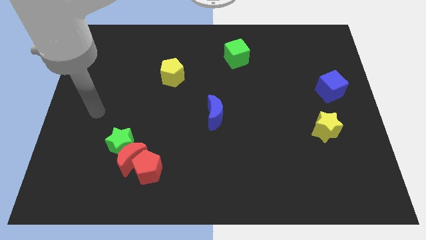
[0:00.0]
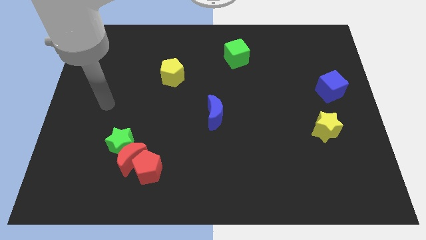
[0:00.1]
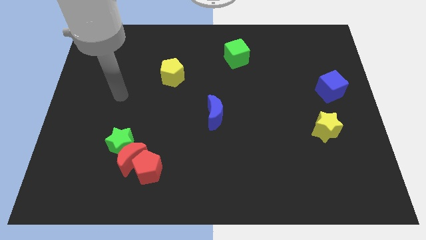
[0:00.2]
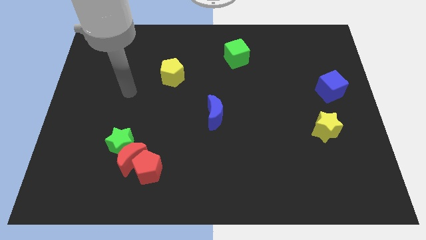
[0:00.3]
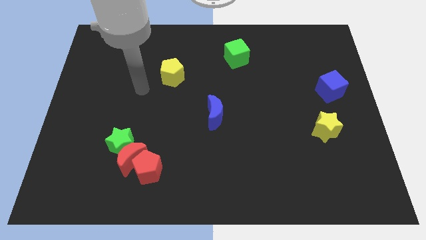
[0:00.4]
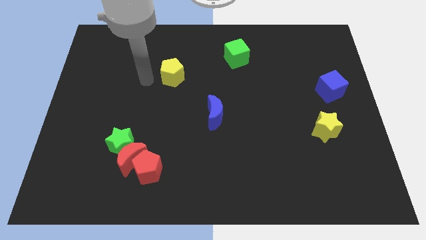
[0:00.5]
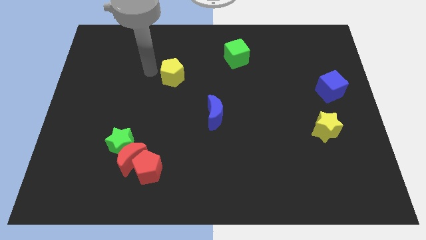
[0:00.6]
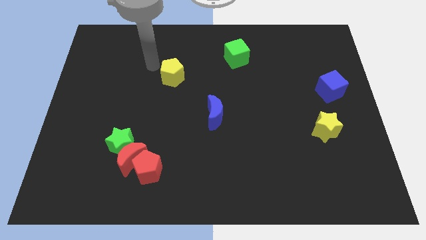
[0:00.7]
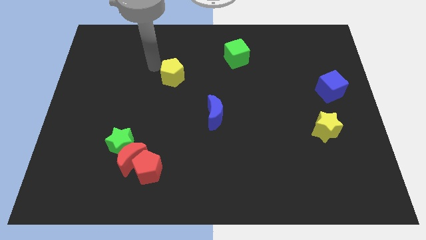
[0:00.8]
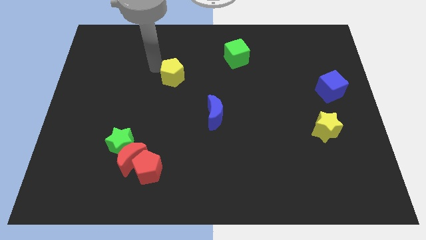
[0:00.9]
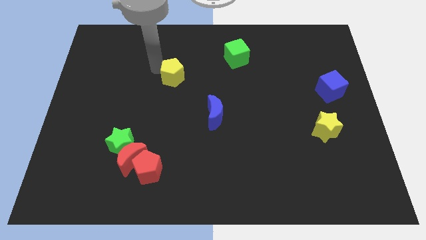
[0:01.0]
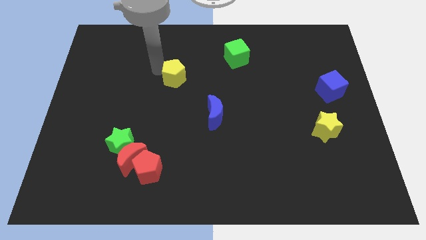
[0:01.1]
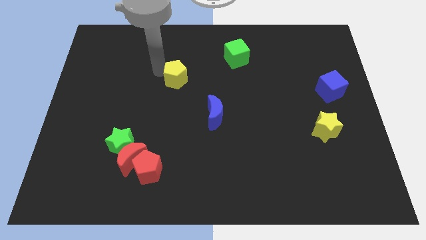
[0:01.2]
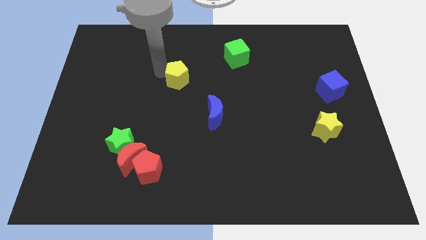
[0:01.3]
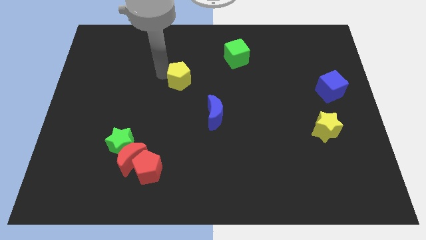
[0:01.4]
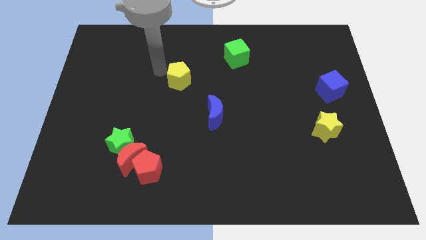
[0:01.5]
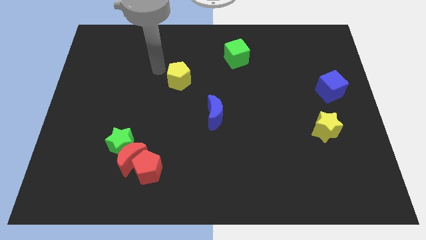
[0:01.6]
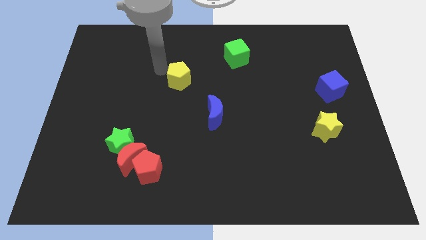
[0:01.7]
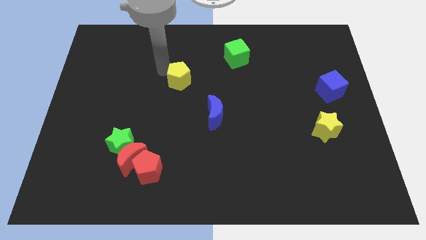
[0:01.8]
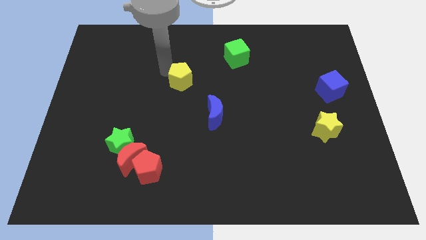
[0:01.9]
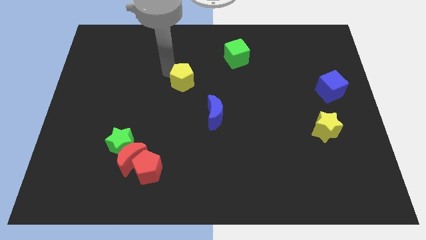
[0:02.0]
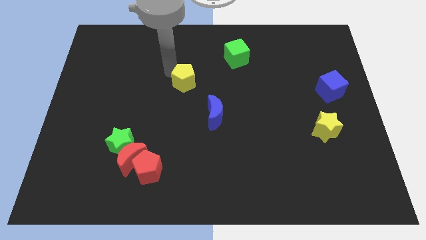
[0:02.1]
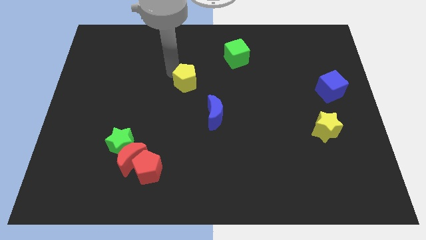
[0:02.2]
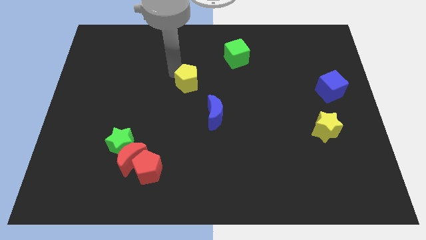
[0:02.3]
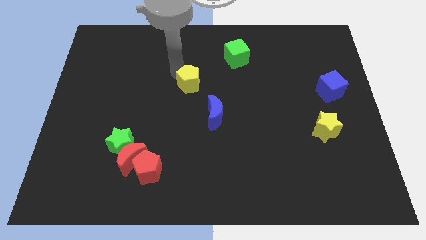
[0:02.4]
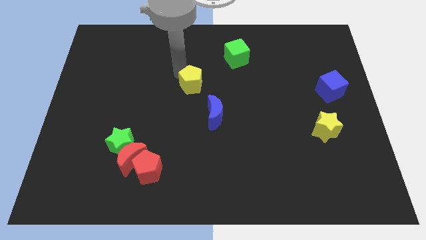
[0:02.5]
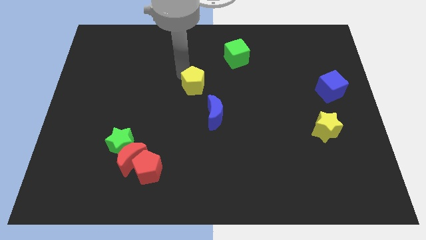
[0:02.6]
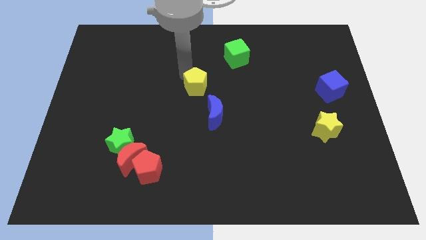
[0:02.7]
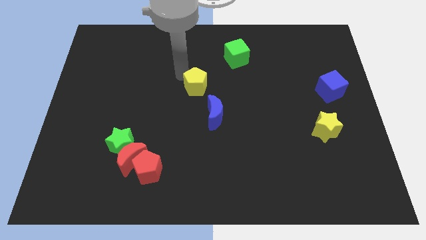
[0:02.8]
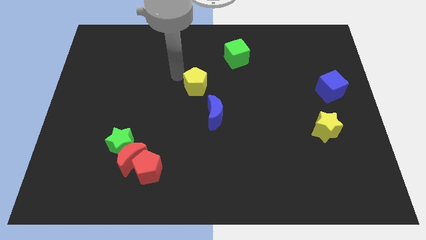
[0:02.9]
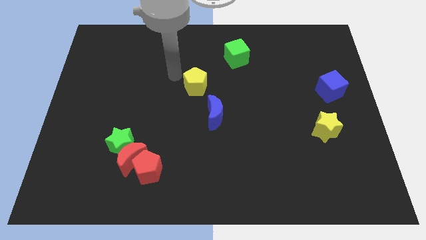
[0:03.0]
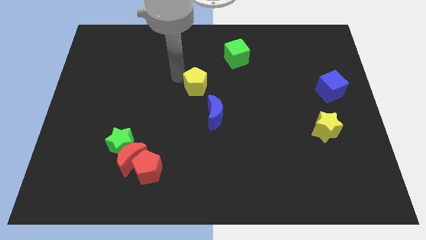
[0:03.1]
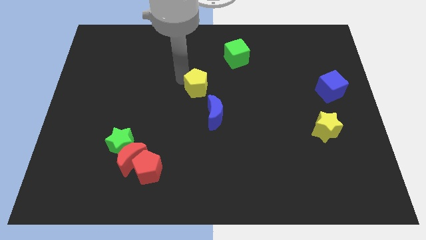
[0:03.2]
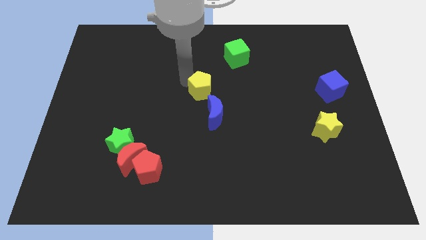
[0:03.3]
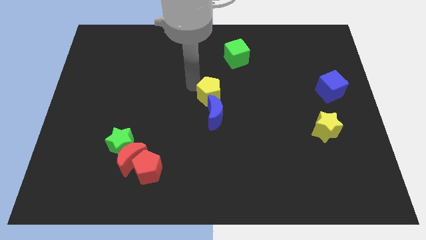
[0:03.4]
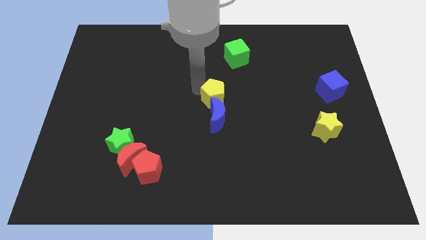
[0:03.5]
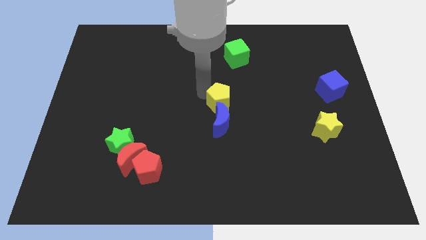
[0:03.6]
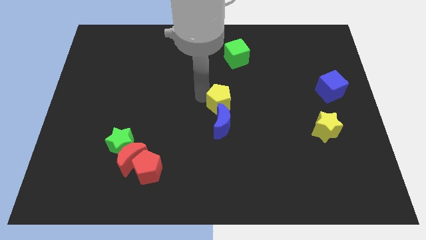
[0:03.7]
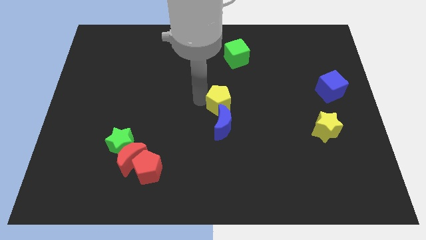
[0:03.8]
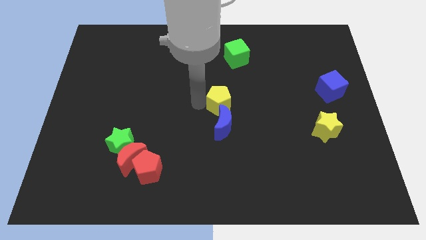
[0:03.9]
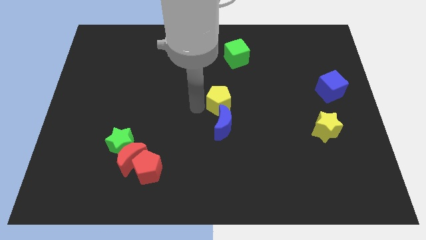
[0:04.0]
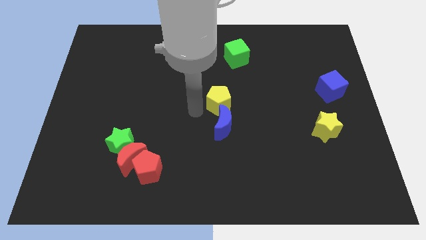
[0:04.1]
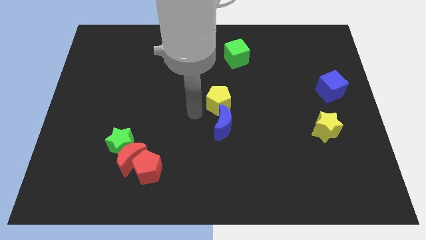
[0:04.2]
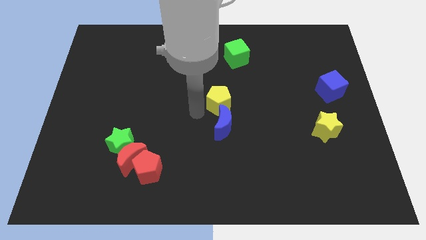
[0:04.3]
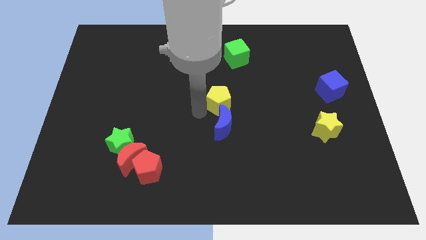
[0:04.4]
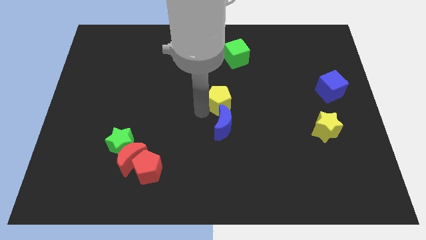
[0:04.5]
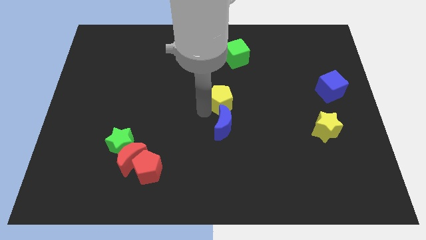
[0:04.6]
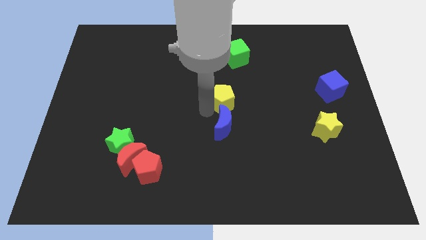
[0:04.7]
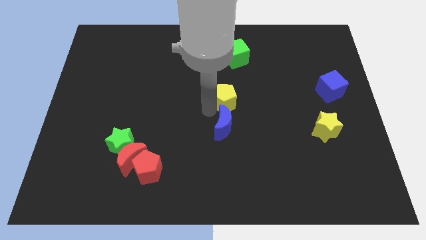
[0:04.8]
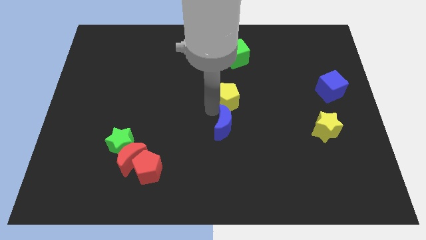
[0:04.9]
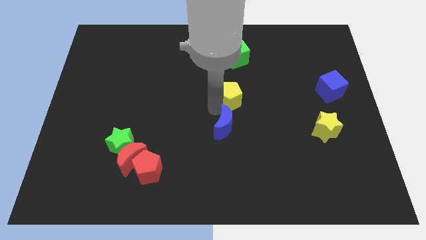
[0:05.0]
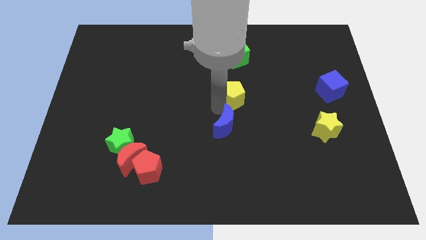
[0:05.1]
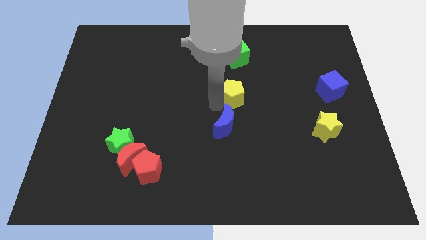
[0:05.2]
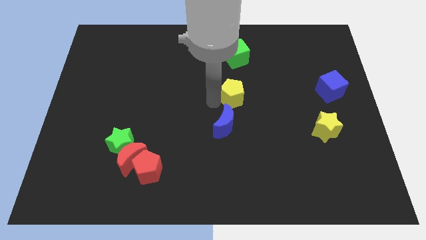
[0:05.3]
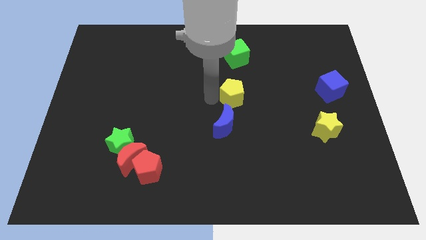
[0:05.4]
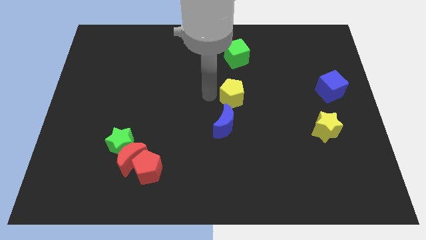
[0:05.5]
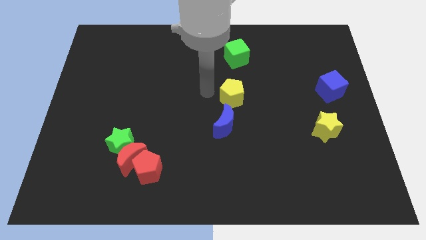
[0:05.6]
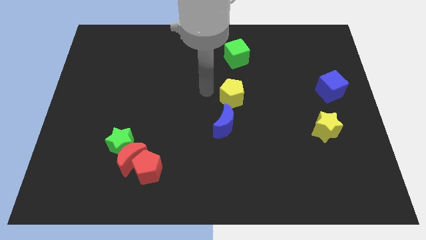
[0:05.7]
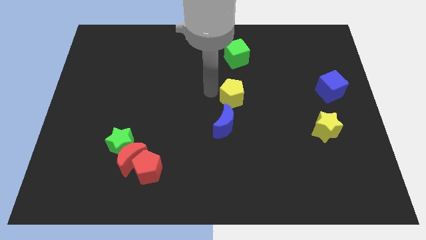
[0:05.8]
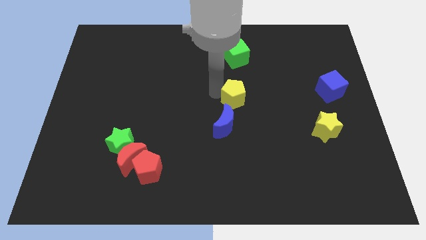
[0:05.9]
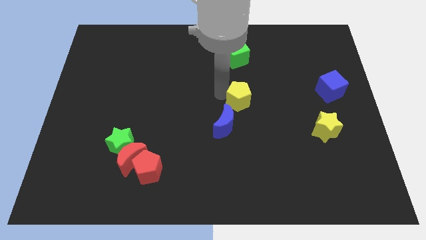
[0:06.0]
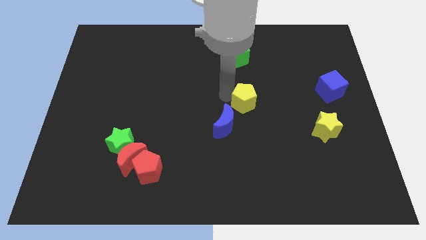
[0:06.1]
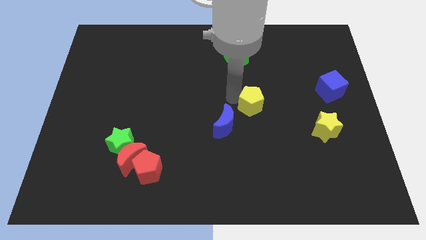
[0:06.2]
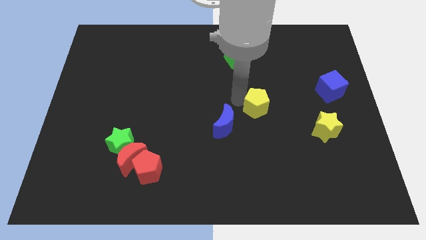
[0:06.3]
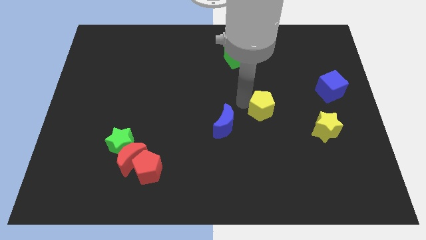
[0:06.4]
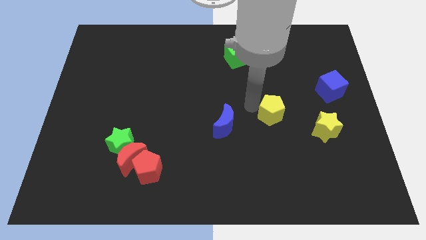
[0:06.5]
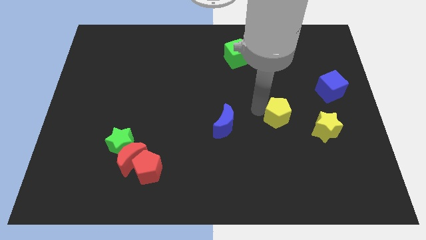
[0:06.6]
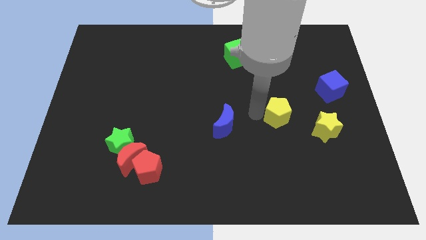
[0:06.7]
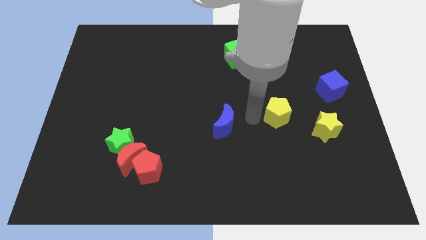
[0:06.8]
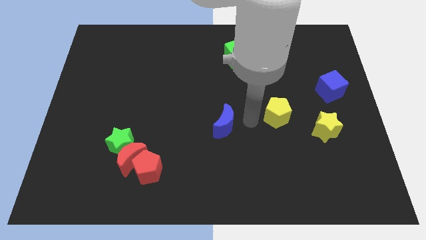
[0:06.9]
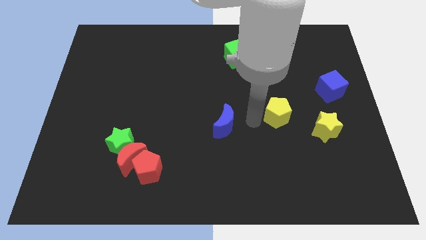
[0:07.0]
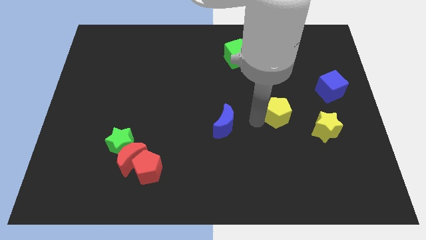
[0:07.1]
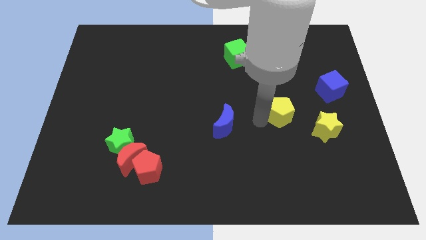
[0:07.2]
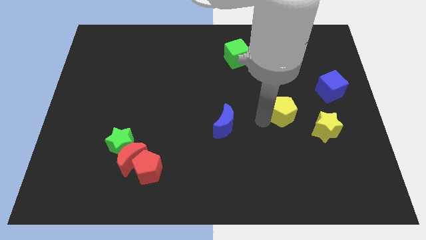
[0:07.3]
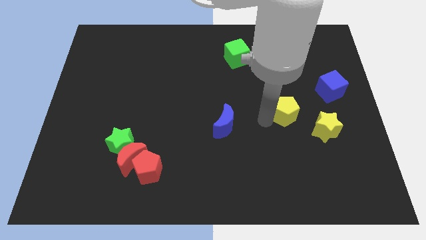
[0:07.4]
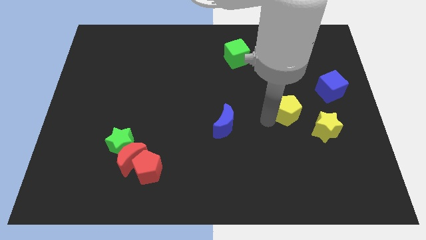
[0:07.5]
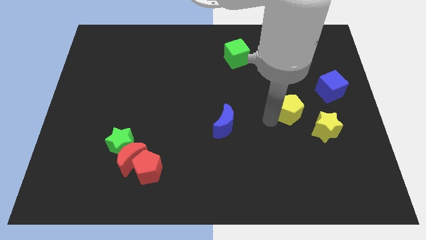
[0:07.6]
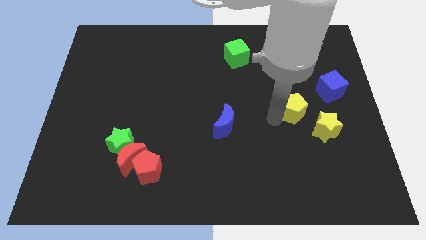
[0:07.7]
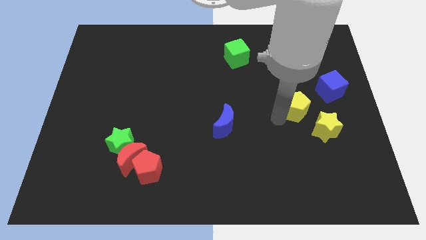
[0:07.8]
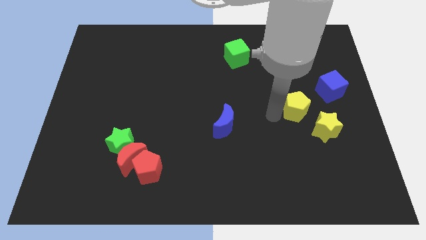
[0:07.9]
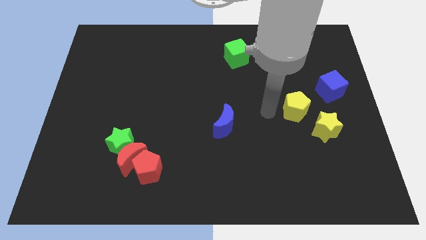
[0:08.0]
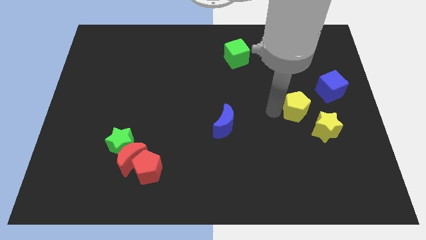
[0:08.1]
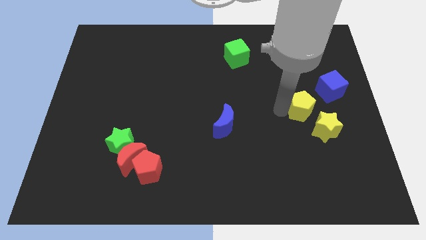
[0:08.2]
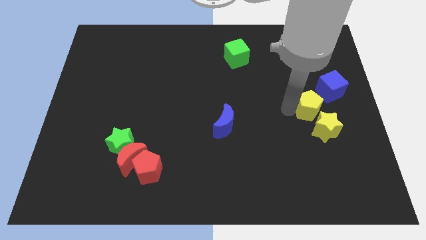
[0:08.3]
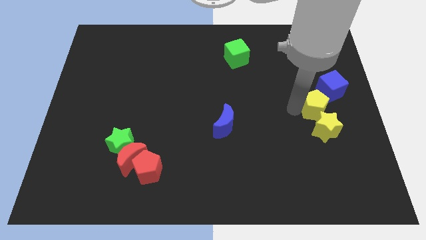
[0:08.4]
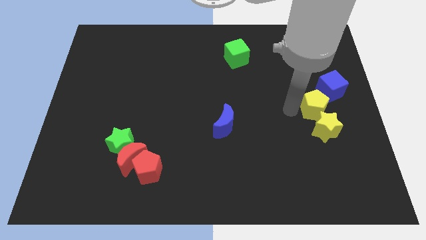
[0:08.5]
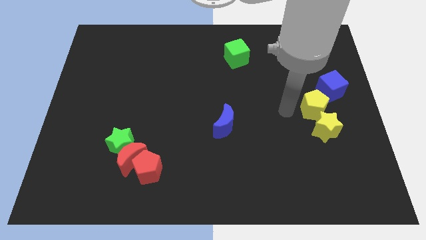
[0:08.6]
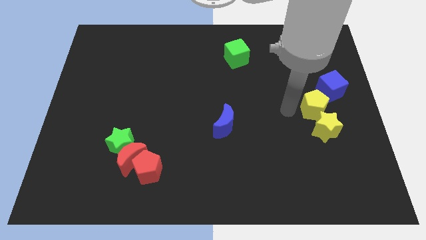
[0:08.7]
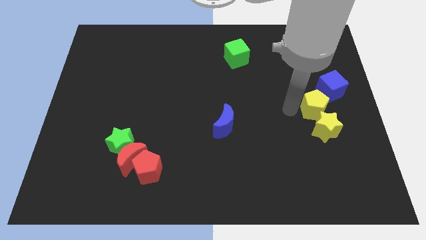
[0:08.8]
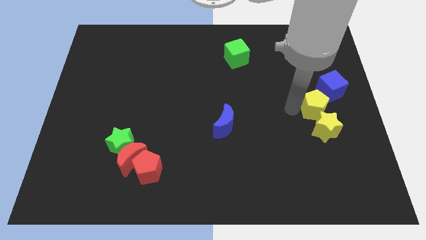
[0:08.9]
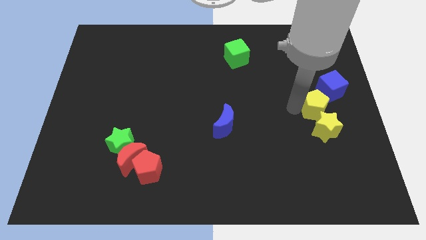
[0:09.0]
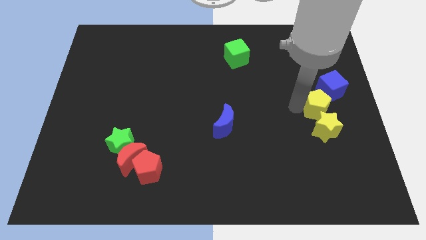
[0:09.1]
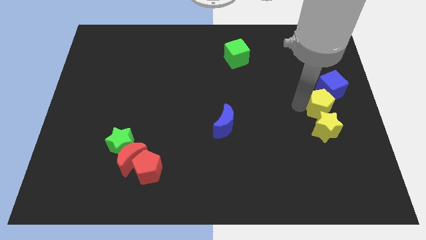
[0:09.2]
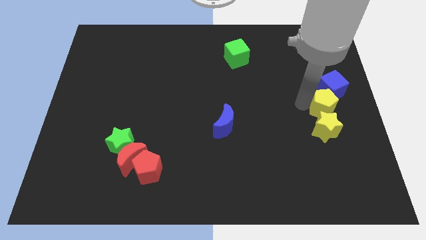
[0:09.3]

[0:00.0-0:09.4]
move the yellow pentagon to the right side of the board
